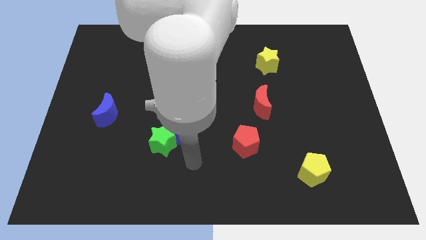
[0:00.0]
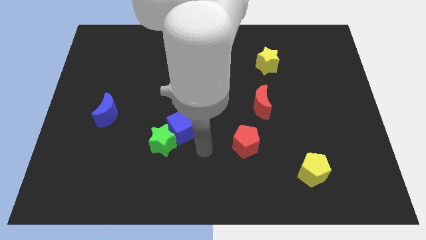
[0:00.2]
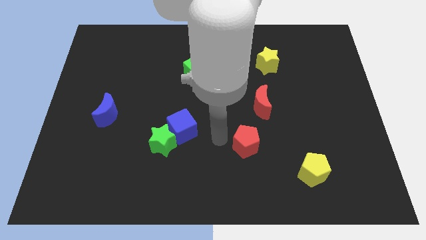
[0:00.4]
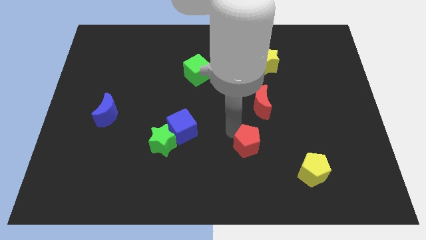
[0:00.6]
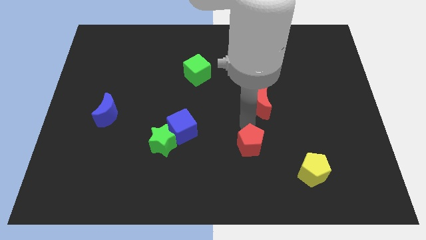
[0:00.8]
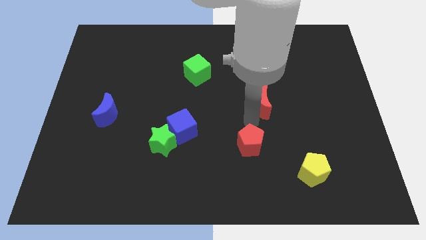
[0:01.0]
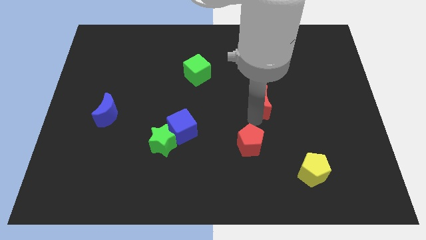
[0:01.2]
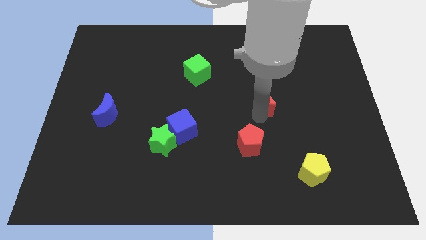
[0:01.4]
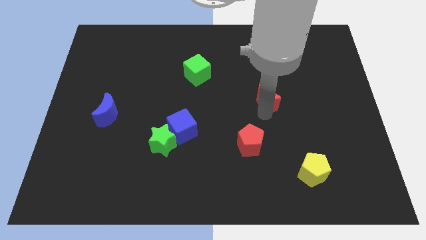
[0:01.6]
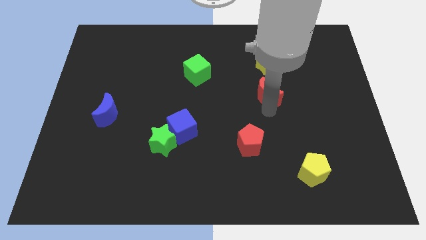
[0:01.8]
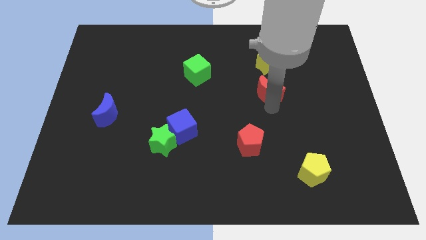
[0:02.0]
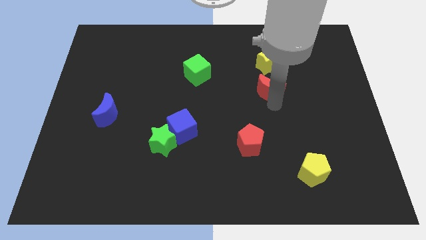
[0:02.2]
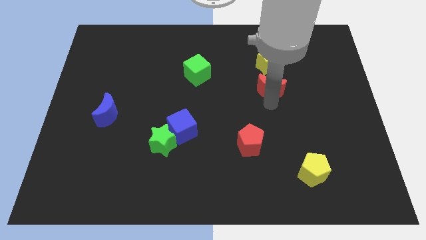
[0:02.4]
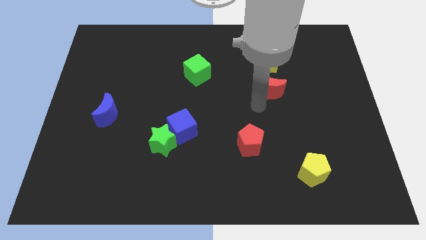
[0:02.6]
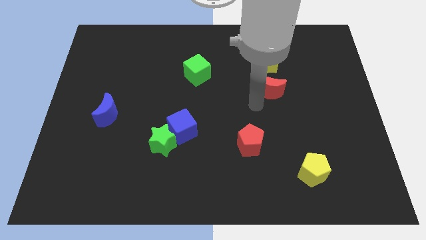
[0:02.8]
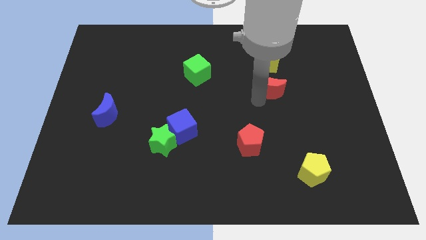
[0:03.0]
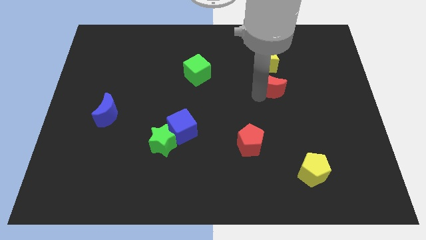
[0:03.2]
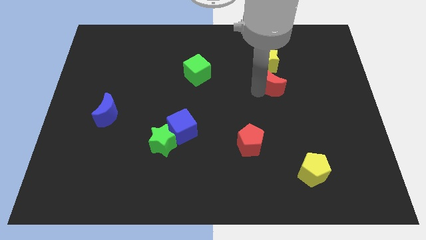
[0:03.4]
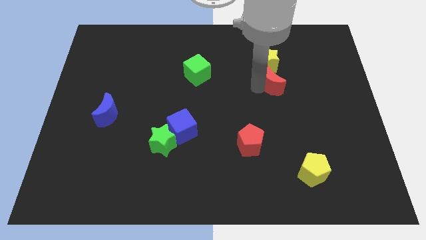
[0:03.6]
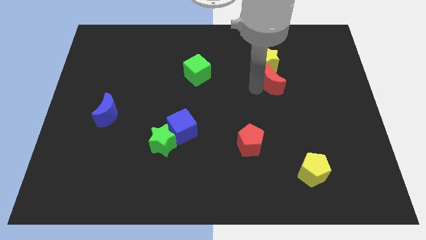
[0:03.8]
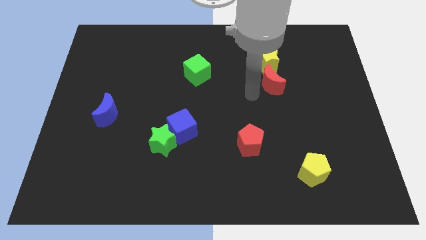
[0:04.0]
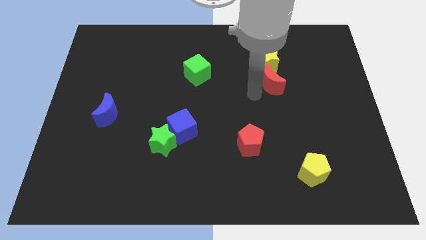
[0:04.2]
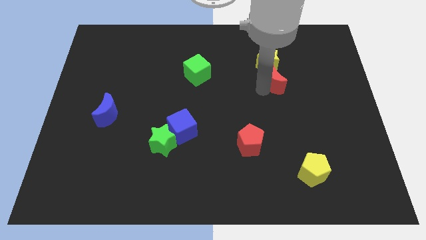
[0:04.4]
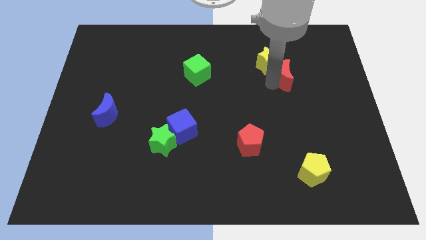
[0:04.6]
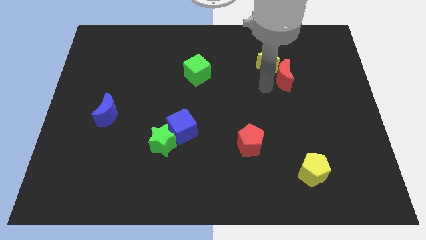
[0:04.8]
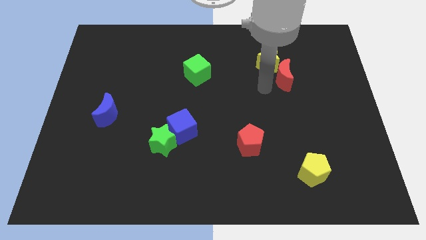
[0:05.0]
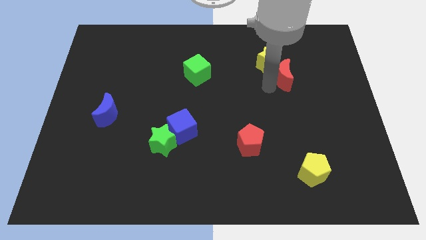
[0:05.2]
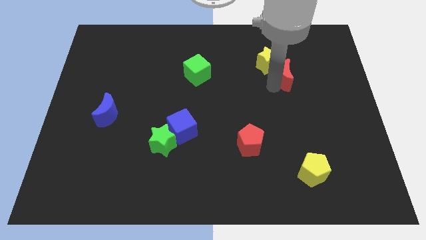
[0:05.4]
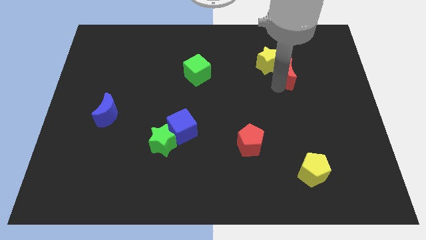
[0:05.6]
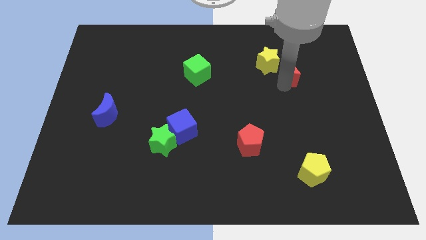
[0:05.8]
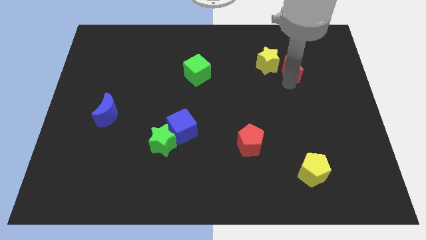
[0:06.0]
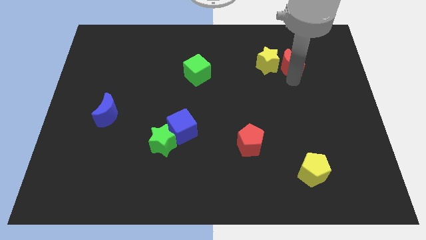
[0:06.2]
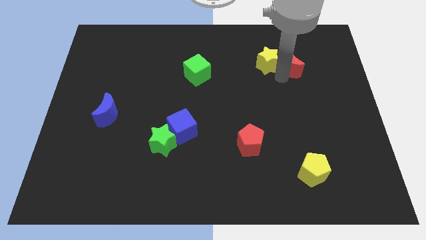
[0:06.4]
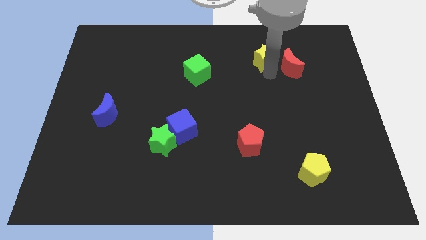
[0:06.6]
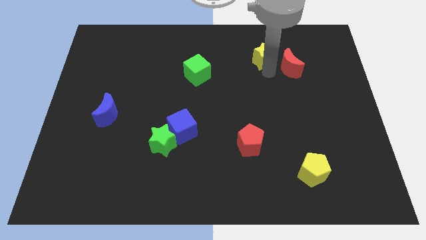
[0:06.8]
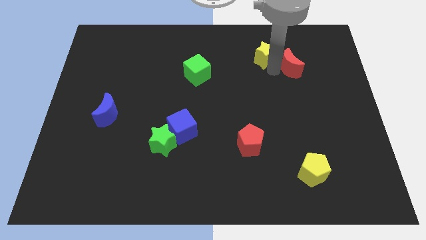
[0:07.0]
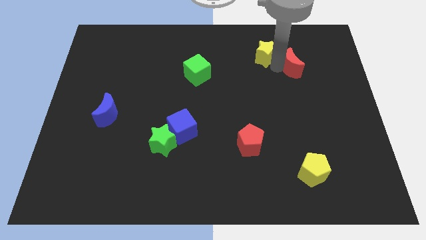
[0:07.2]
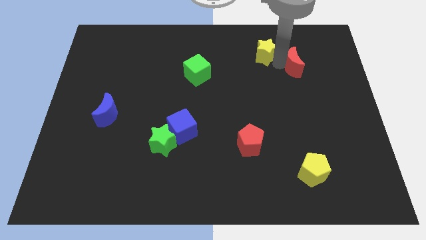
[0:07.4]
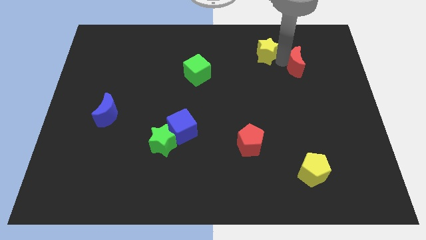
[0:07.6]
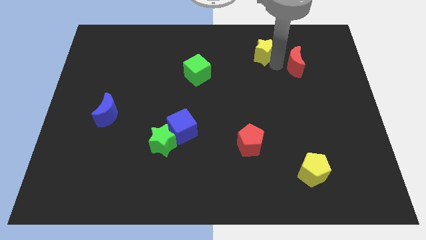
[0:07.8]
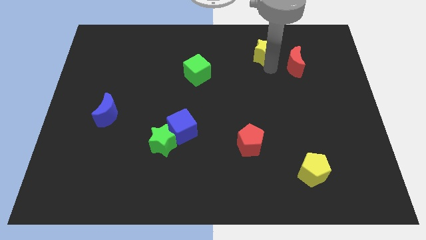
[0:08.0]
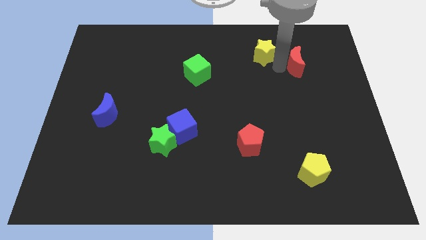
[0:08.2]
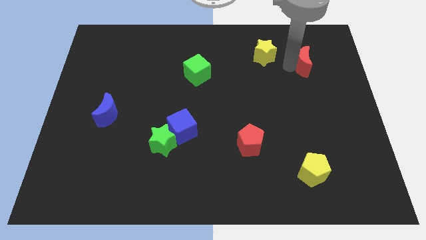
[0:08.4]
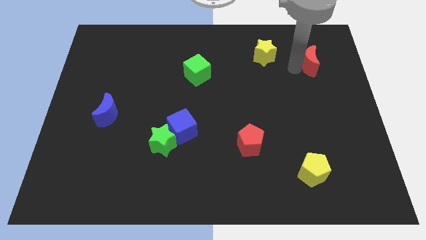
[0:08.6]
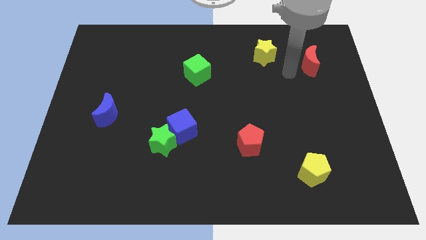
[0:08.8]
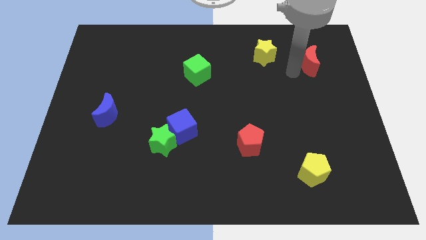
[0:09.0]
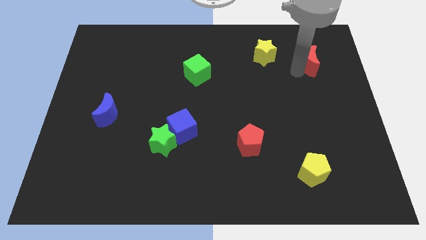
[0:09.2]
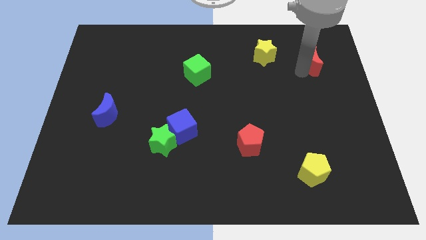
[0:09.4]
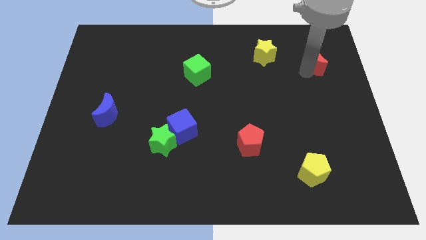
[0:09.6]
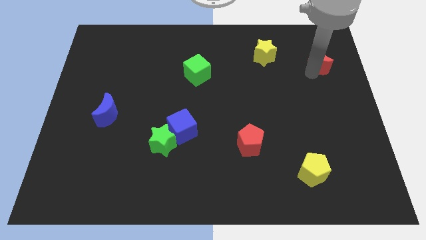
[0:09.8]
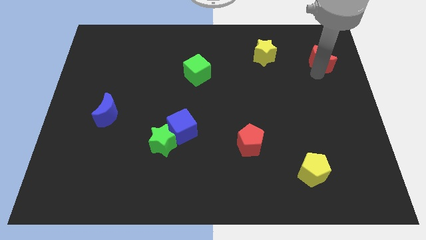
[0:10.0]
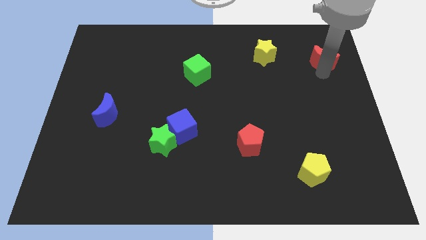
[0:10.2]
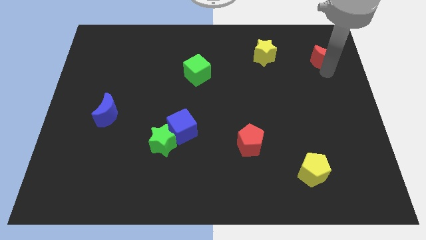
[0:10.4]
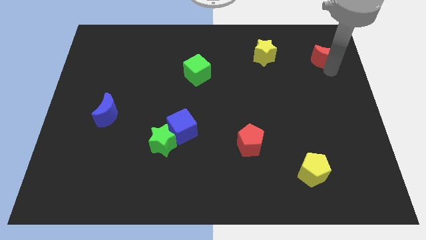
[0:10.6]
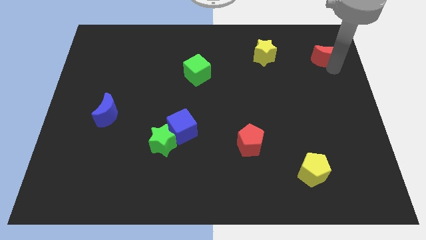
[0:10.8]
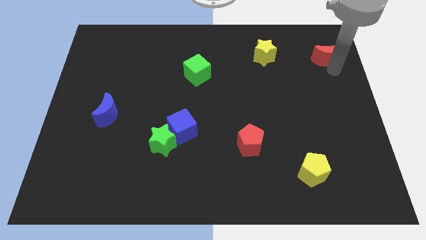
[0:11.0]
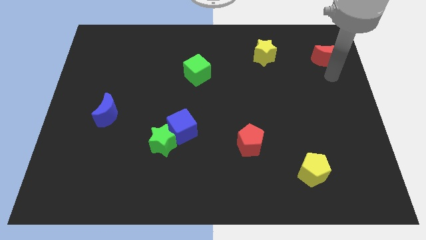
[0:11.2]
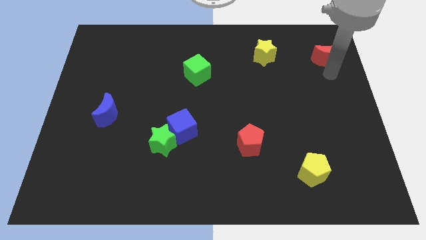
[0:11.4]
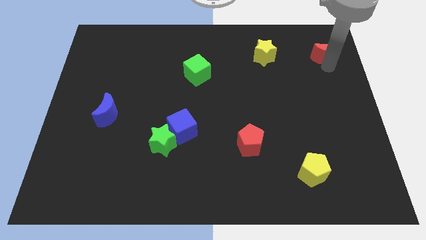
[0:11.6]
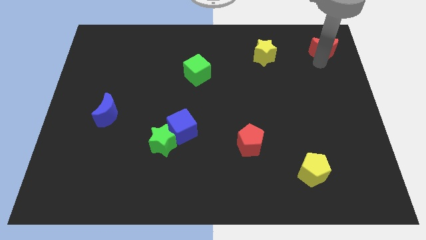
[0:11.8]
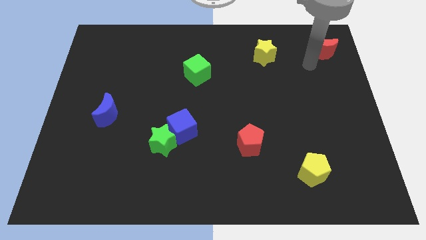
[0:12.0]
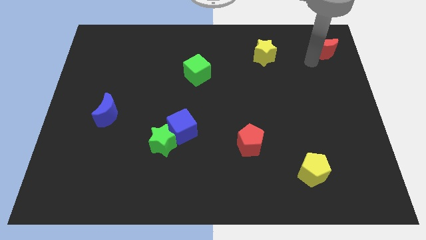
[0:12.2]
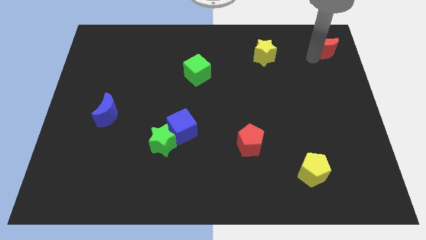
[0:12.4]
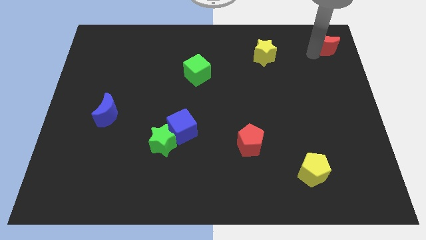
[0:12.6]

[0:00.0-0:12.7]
move the red moon to the top right of the board
